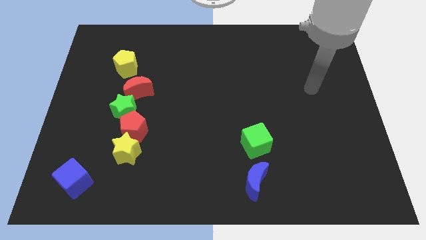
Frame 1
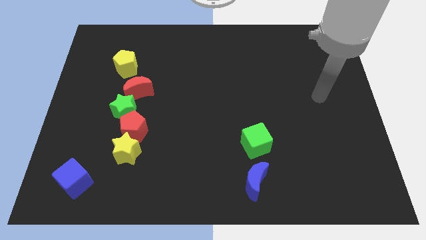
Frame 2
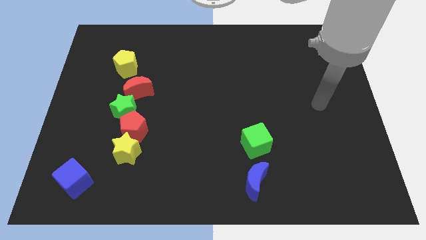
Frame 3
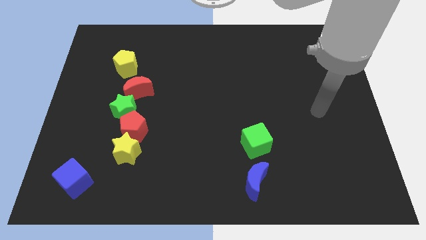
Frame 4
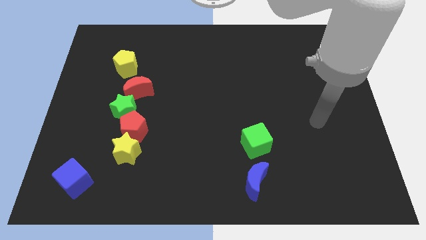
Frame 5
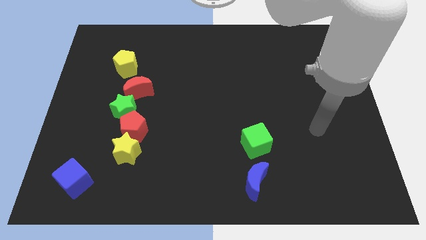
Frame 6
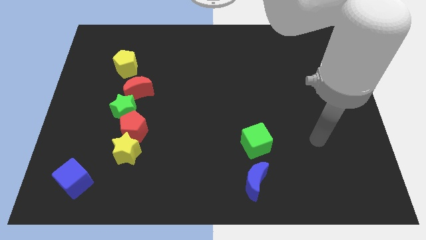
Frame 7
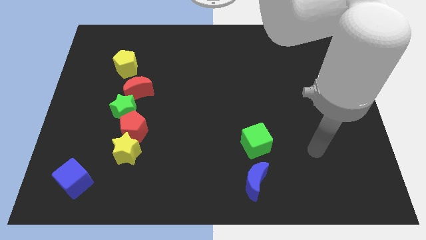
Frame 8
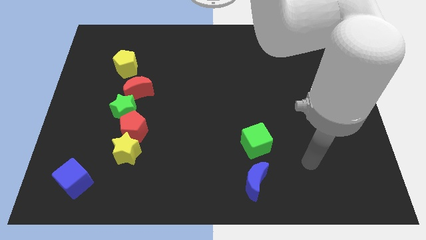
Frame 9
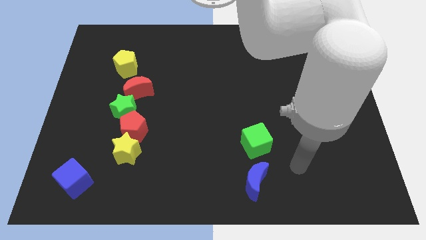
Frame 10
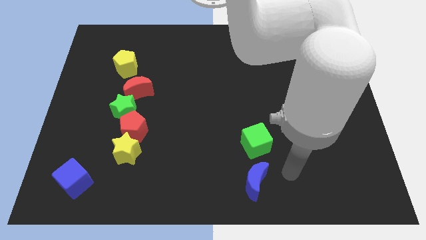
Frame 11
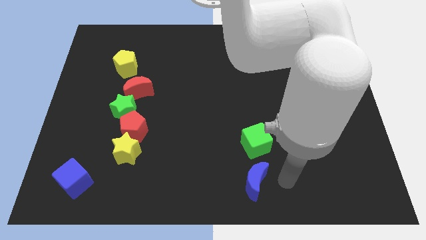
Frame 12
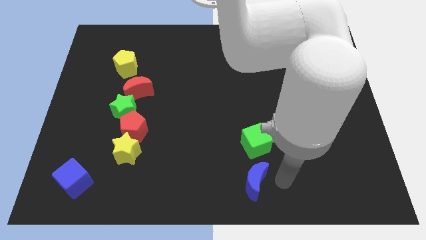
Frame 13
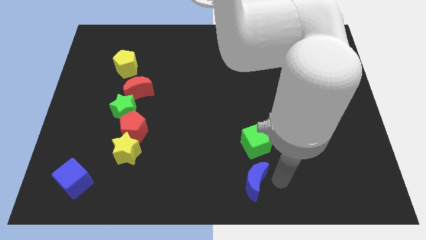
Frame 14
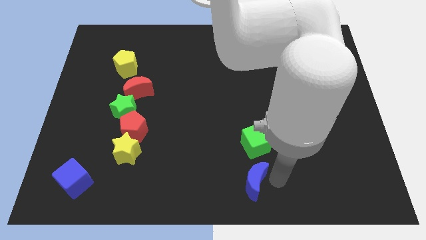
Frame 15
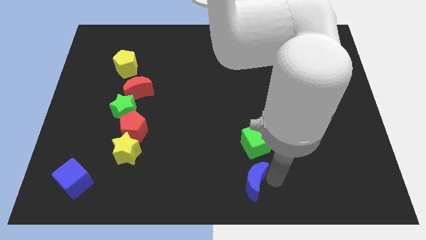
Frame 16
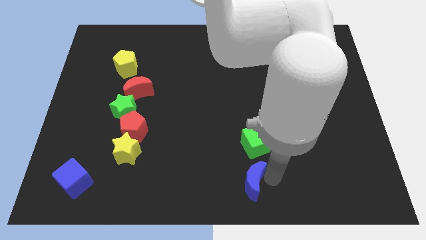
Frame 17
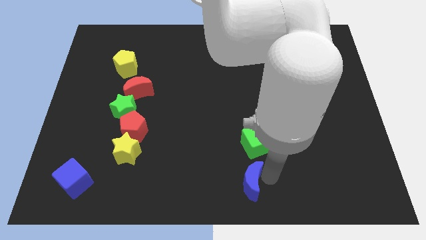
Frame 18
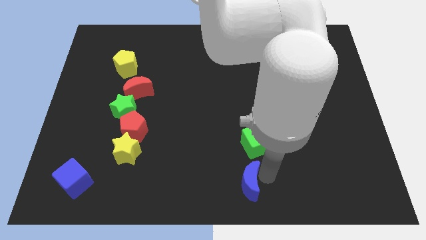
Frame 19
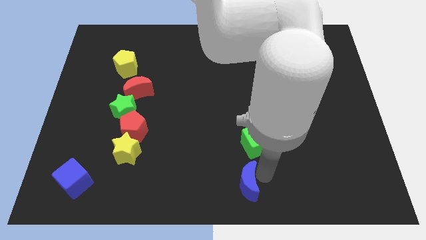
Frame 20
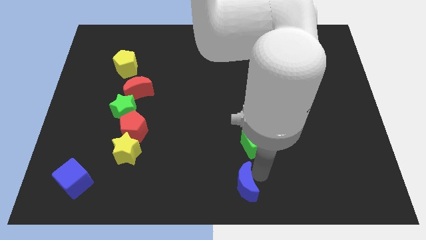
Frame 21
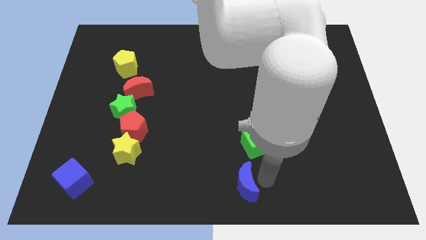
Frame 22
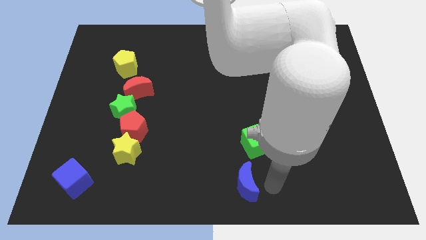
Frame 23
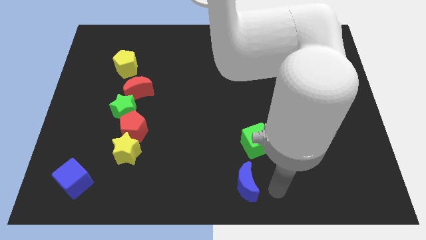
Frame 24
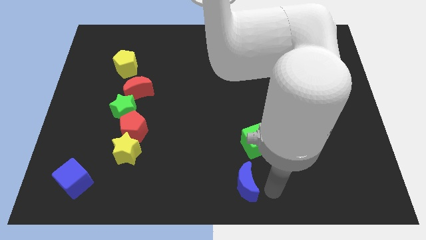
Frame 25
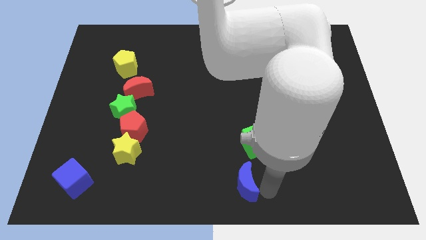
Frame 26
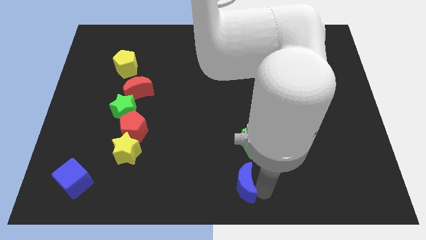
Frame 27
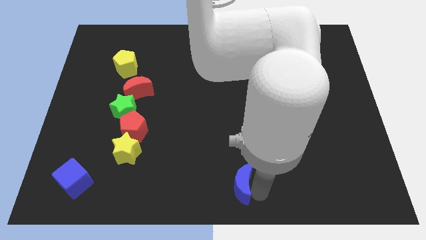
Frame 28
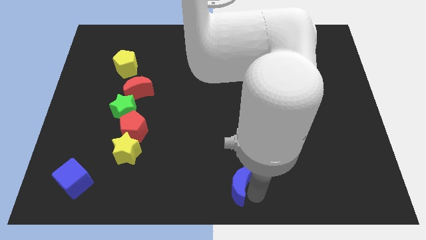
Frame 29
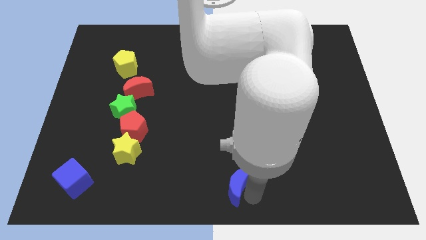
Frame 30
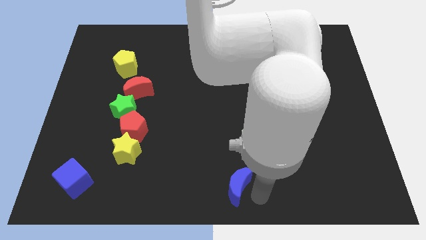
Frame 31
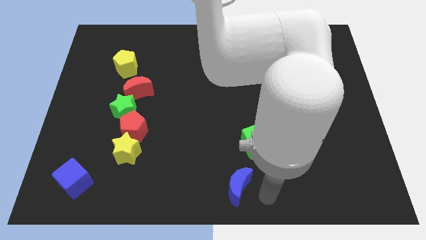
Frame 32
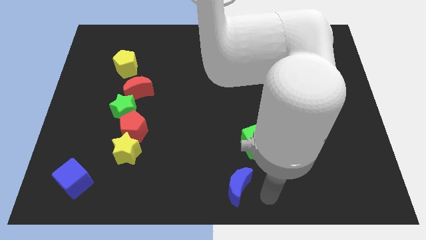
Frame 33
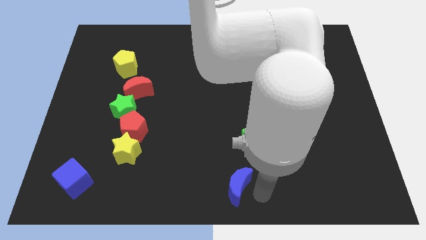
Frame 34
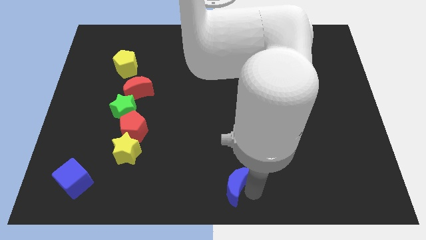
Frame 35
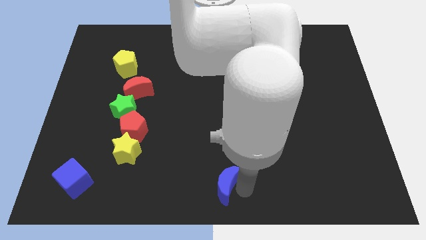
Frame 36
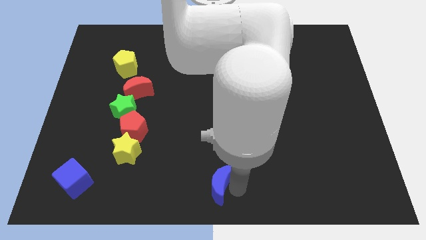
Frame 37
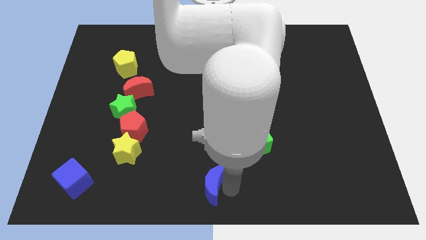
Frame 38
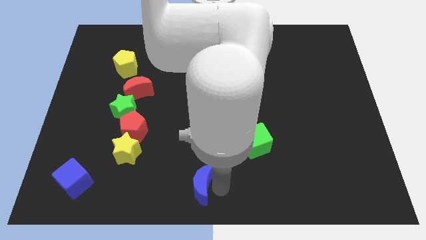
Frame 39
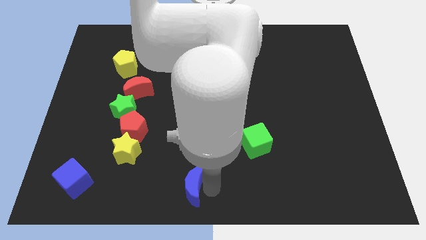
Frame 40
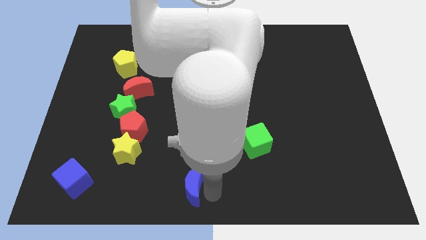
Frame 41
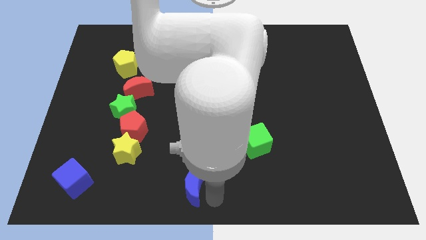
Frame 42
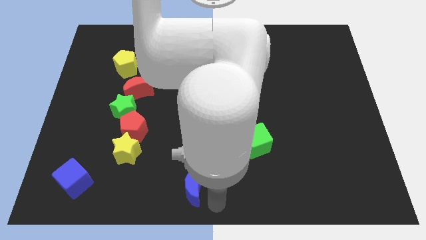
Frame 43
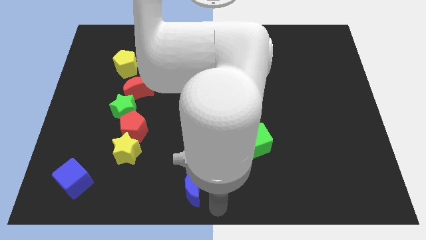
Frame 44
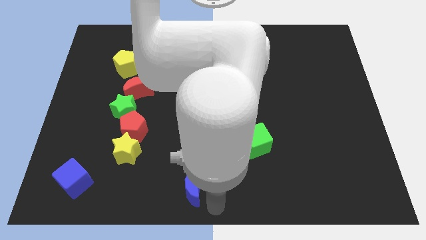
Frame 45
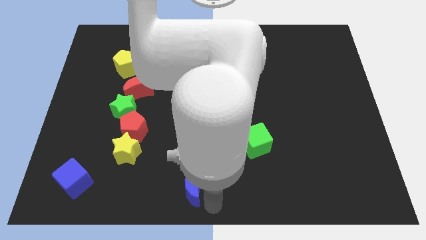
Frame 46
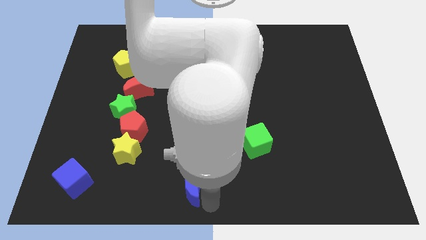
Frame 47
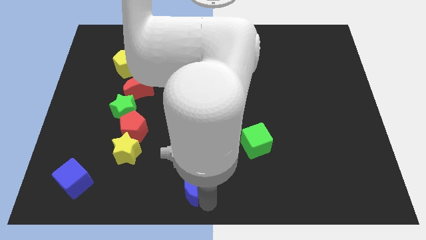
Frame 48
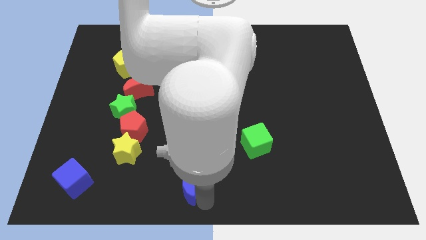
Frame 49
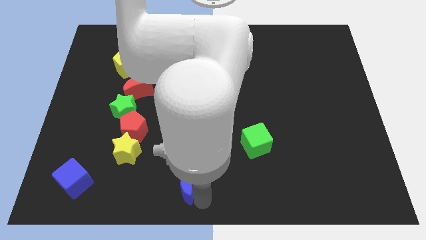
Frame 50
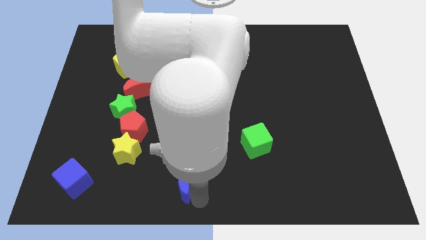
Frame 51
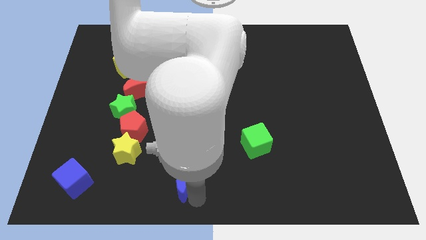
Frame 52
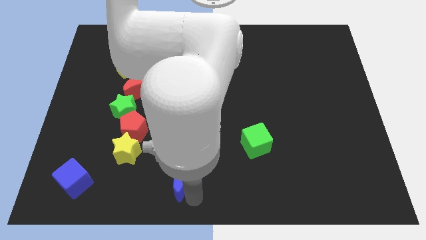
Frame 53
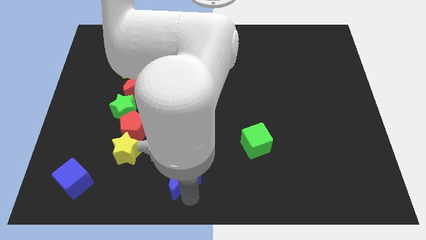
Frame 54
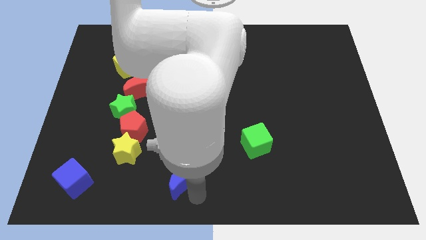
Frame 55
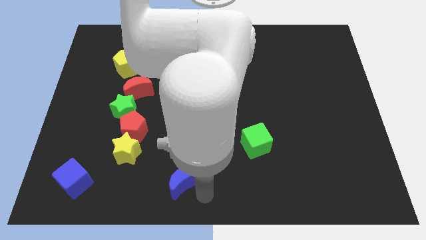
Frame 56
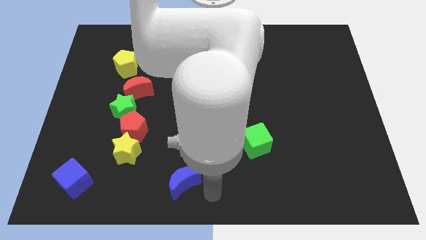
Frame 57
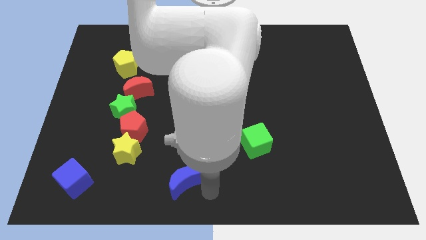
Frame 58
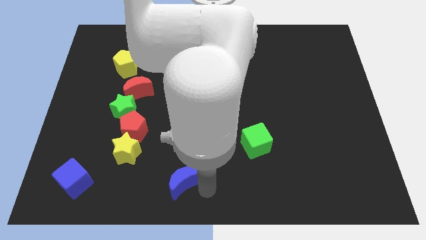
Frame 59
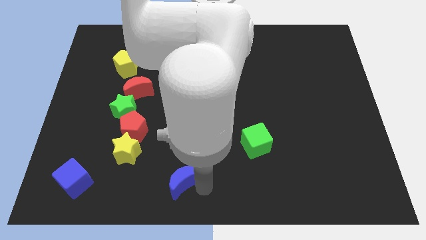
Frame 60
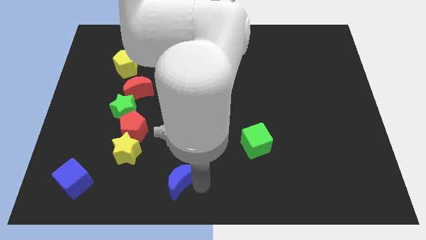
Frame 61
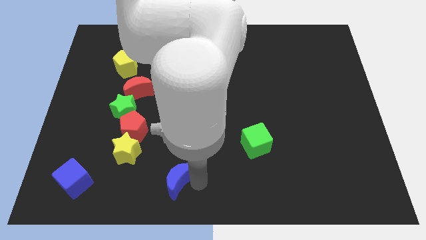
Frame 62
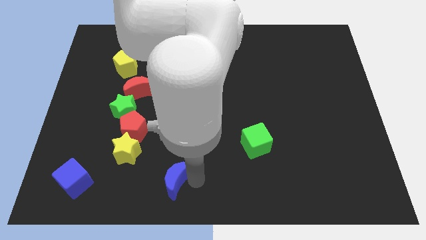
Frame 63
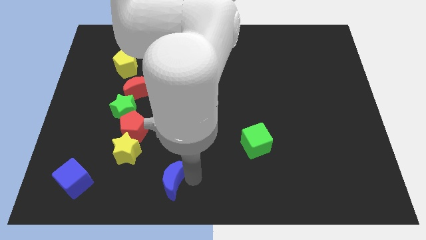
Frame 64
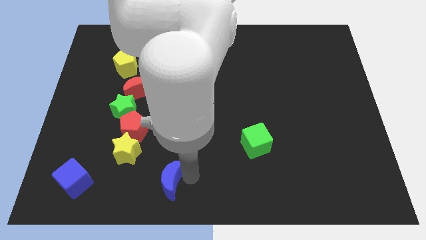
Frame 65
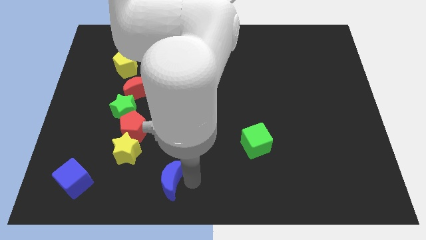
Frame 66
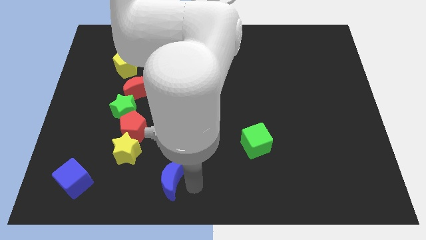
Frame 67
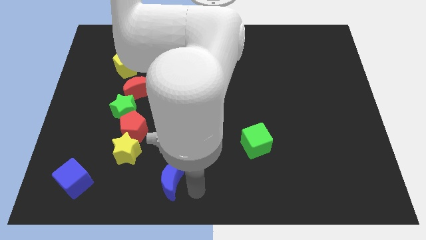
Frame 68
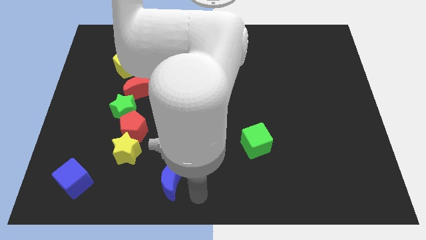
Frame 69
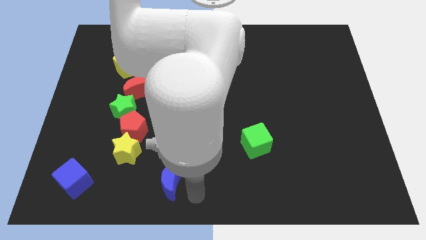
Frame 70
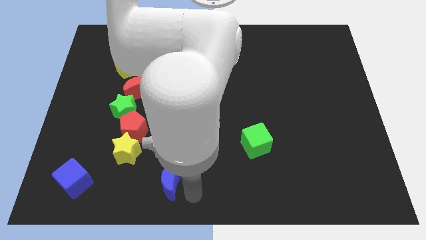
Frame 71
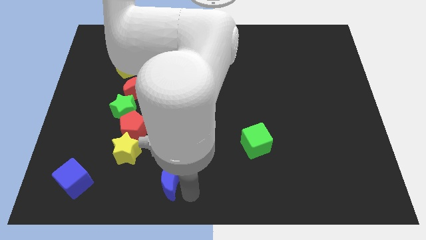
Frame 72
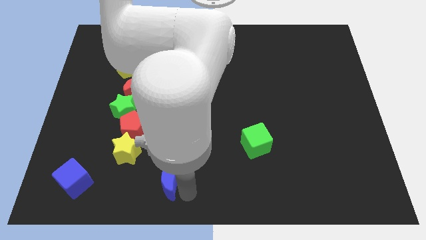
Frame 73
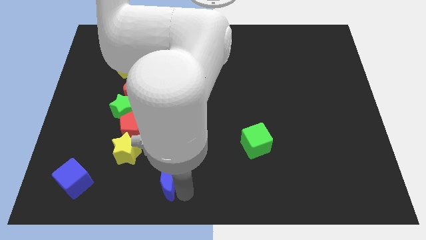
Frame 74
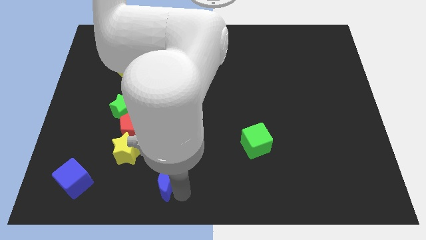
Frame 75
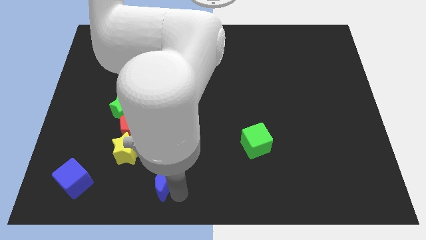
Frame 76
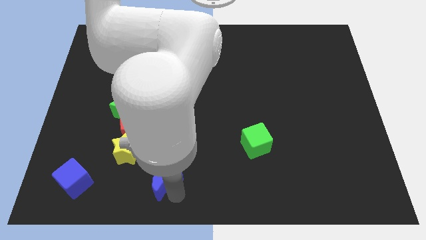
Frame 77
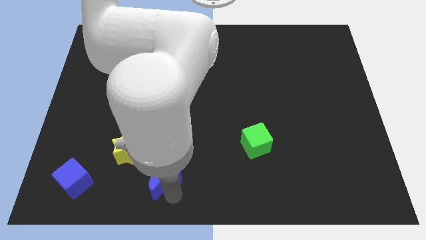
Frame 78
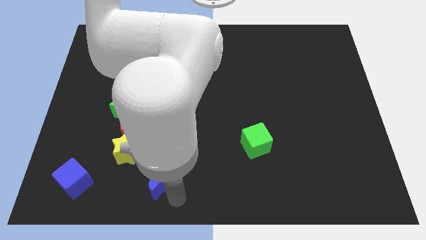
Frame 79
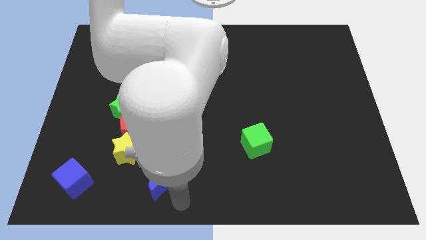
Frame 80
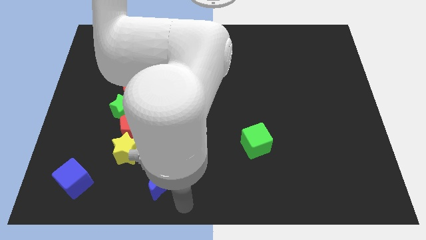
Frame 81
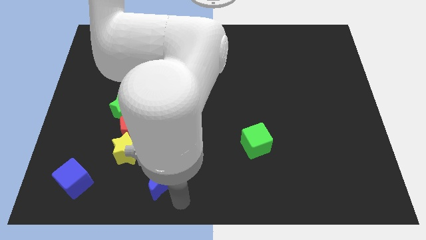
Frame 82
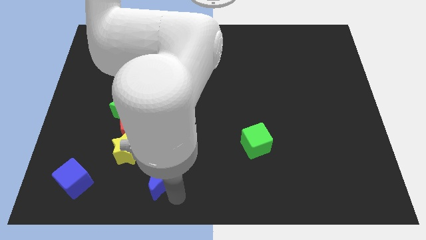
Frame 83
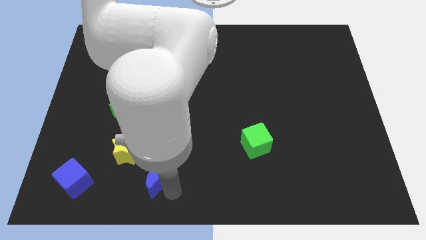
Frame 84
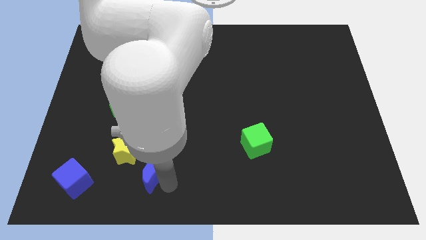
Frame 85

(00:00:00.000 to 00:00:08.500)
push the blue moon left
